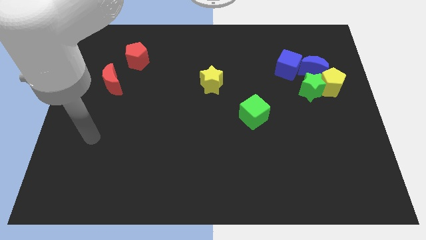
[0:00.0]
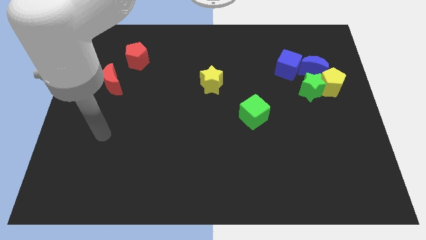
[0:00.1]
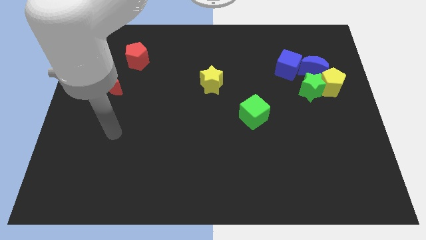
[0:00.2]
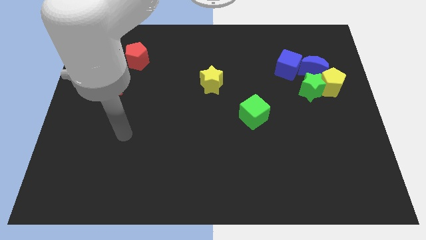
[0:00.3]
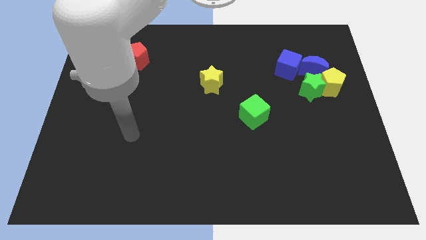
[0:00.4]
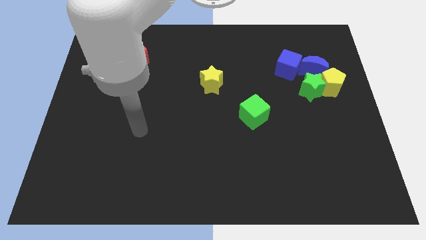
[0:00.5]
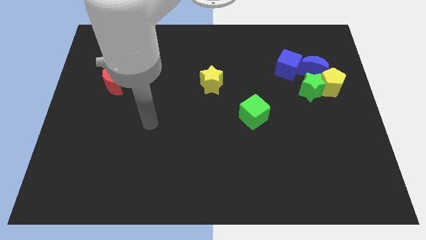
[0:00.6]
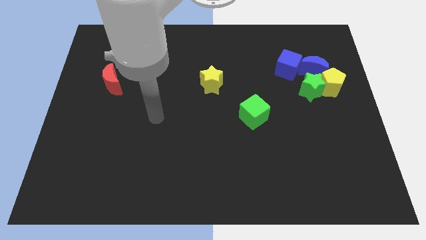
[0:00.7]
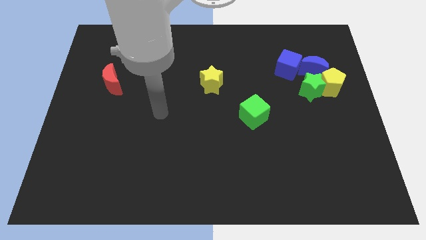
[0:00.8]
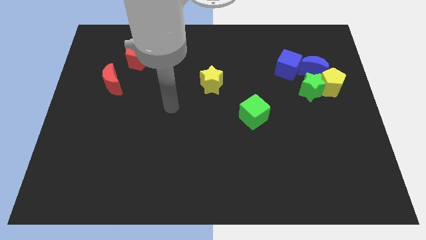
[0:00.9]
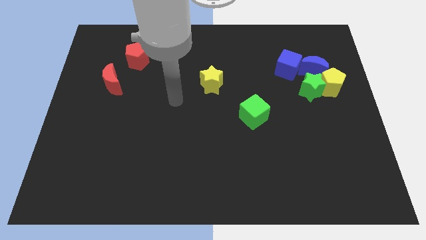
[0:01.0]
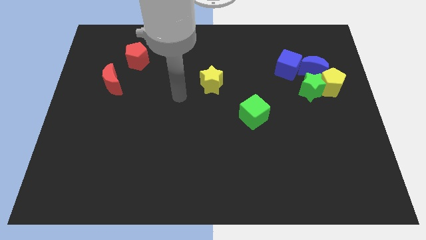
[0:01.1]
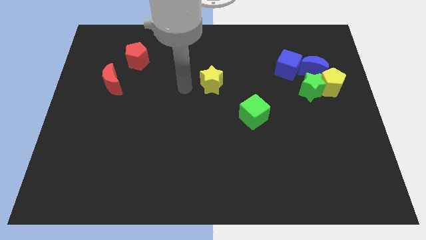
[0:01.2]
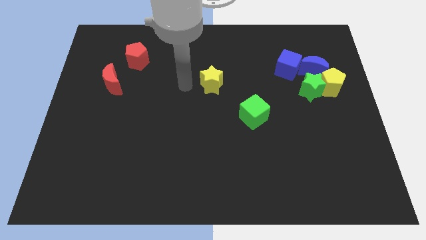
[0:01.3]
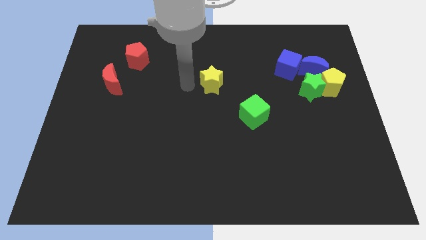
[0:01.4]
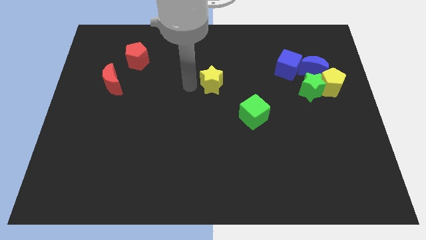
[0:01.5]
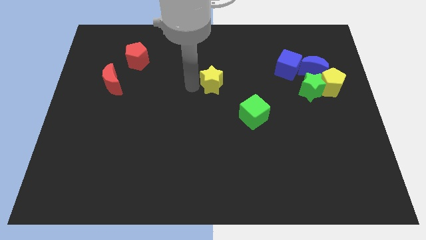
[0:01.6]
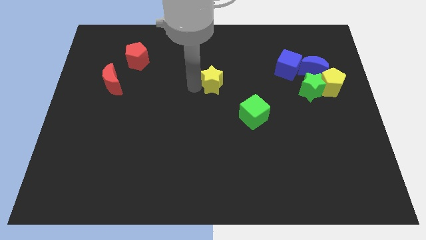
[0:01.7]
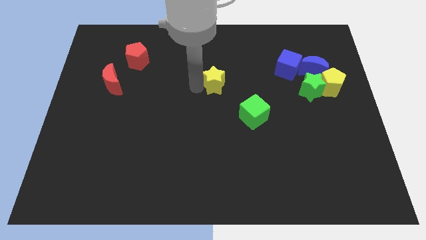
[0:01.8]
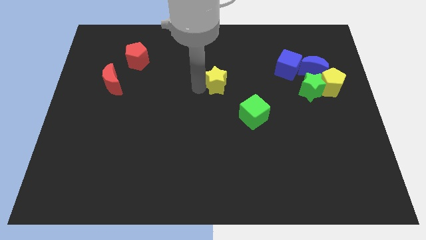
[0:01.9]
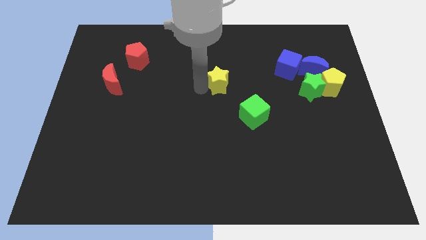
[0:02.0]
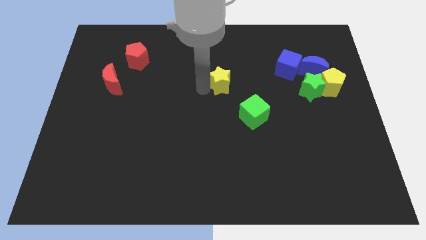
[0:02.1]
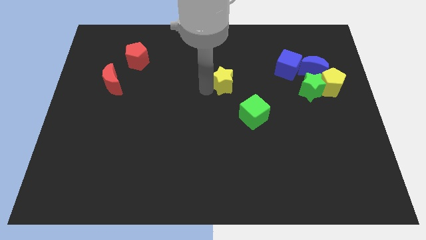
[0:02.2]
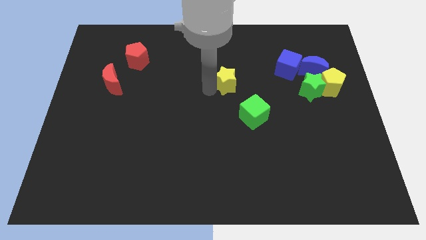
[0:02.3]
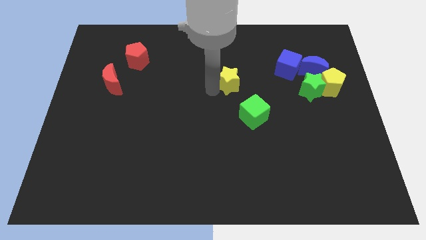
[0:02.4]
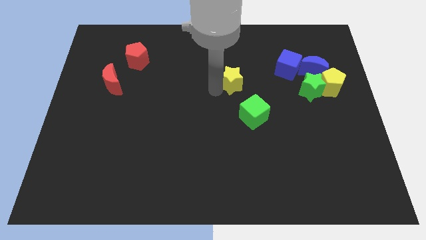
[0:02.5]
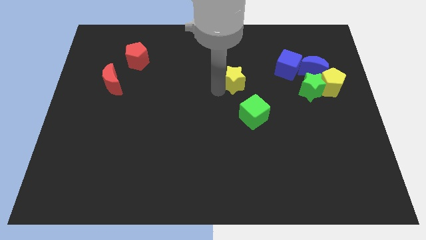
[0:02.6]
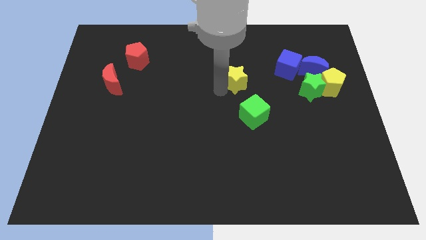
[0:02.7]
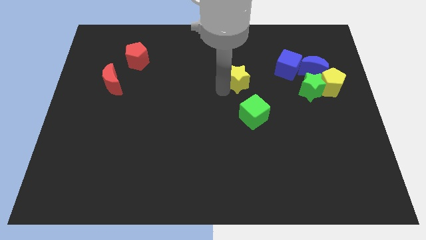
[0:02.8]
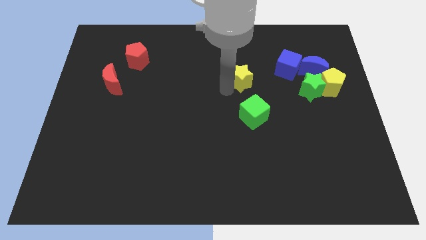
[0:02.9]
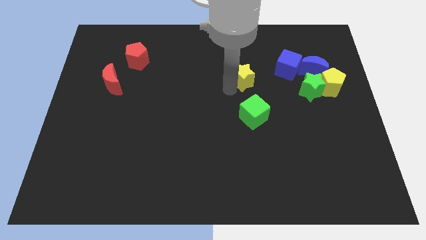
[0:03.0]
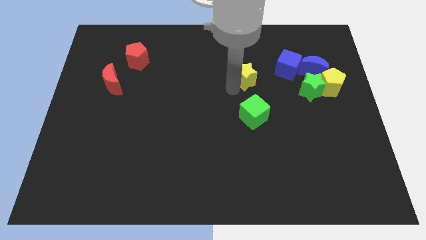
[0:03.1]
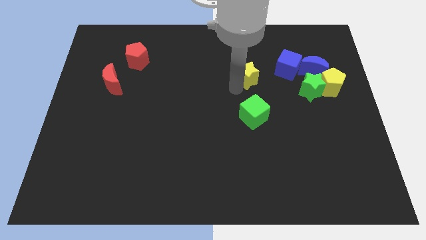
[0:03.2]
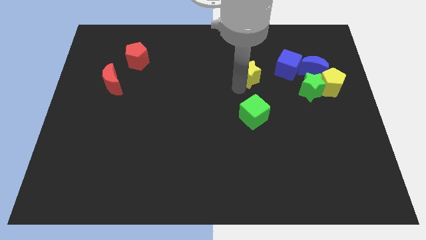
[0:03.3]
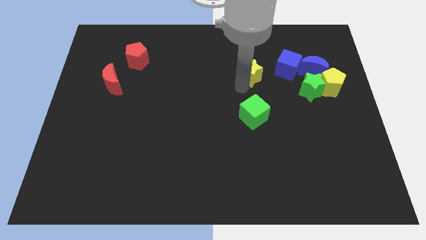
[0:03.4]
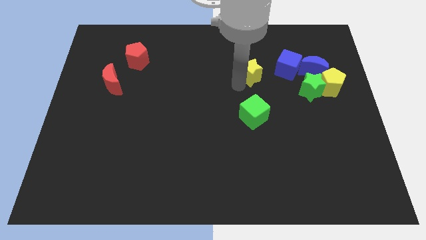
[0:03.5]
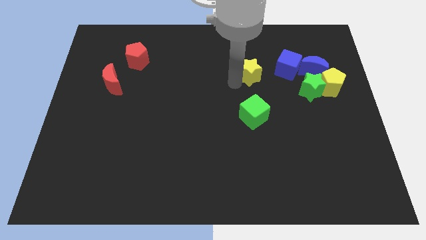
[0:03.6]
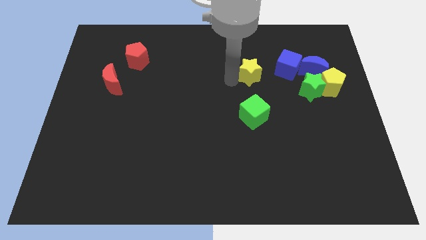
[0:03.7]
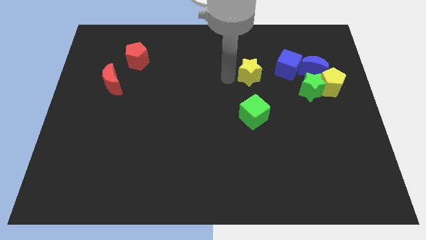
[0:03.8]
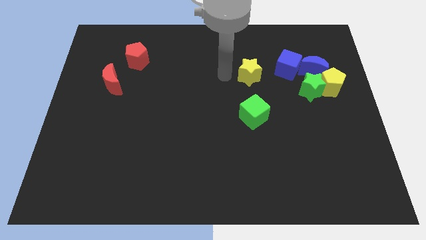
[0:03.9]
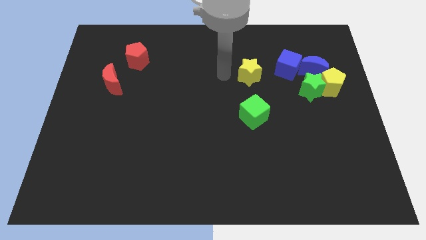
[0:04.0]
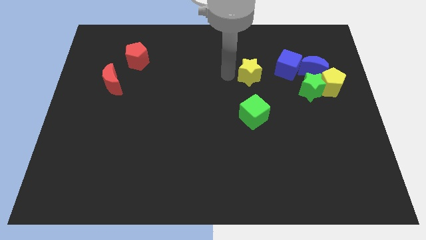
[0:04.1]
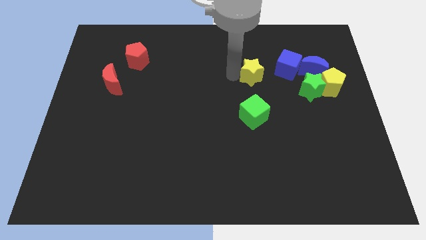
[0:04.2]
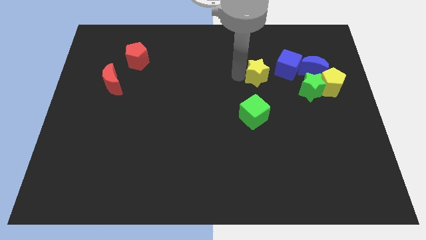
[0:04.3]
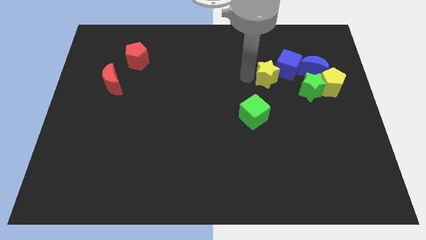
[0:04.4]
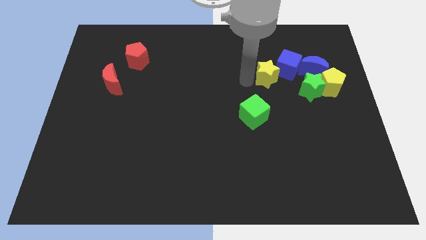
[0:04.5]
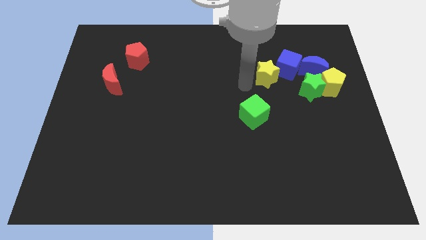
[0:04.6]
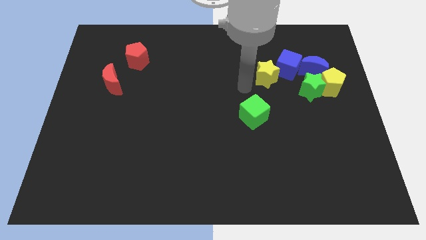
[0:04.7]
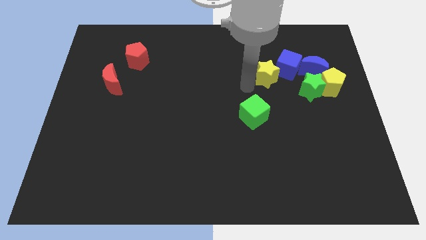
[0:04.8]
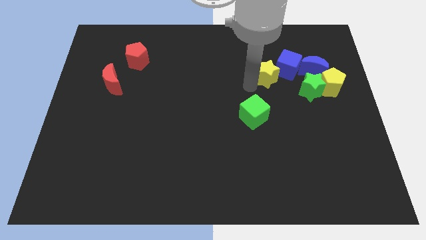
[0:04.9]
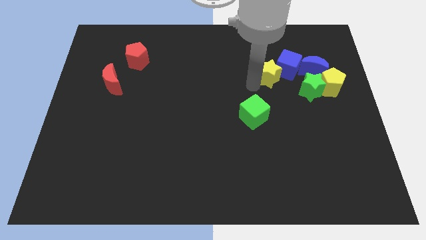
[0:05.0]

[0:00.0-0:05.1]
push the yellow star to the blue cube

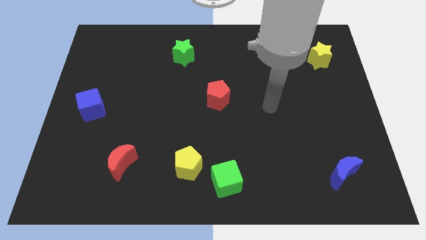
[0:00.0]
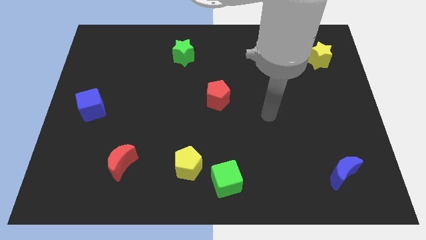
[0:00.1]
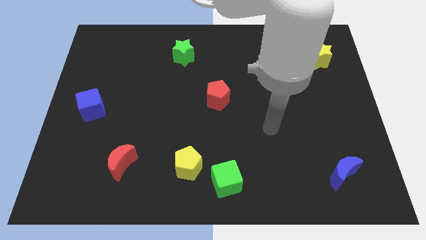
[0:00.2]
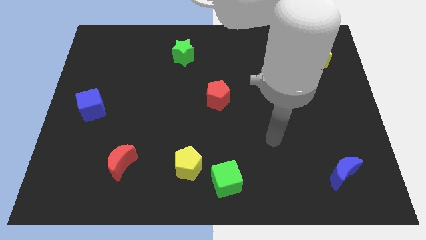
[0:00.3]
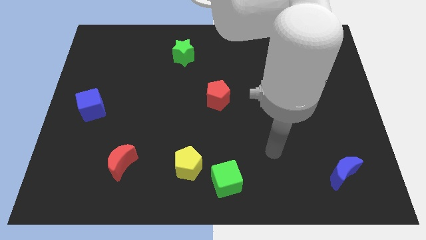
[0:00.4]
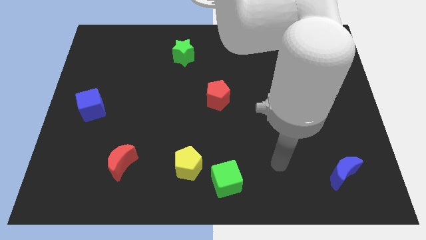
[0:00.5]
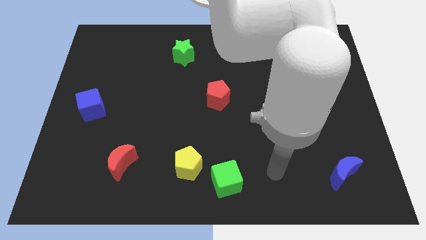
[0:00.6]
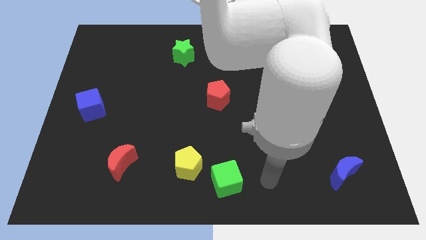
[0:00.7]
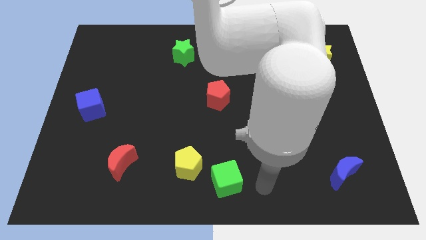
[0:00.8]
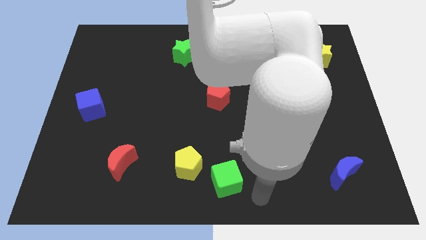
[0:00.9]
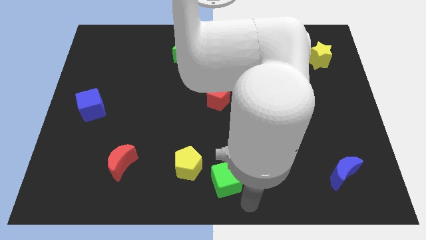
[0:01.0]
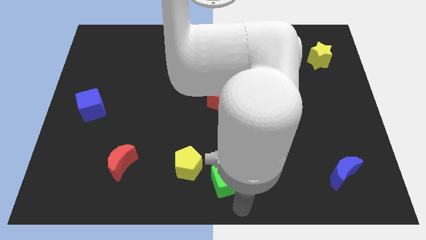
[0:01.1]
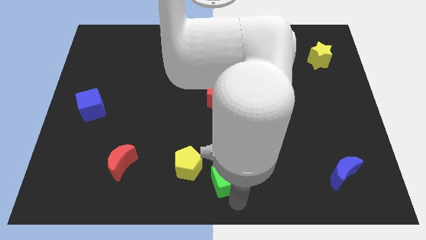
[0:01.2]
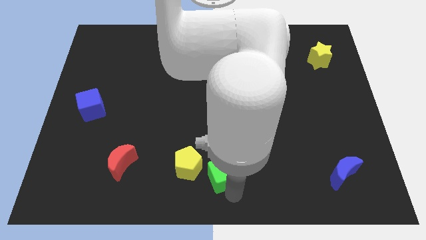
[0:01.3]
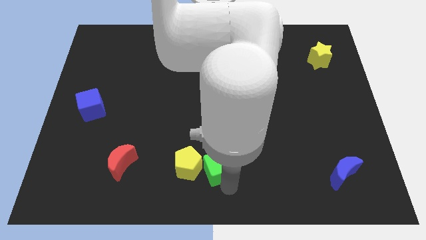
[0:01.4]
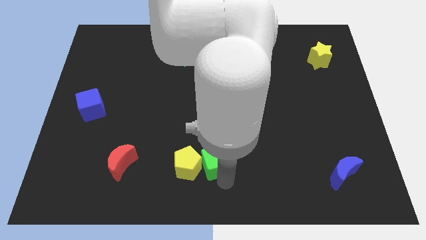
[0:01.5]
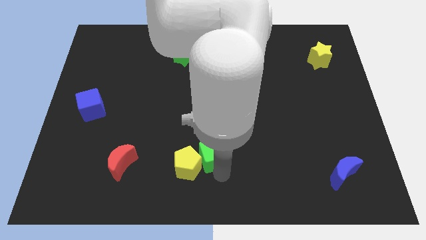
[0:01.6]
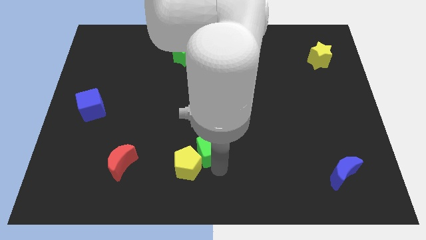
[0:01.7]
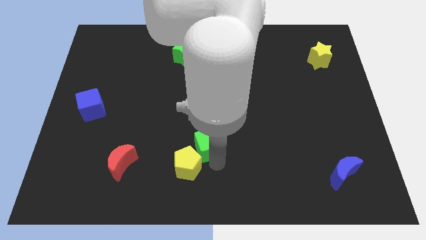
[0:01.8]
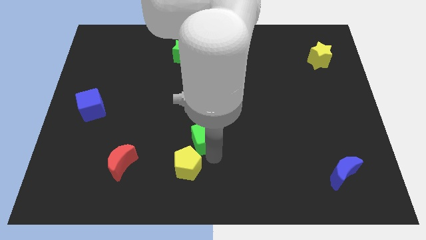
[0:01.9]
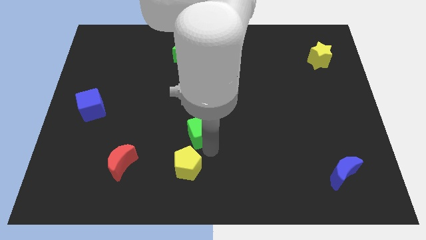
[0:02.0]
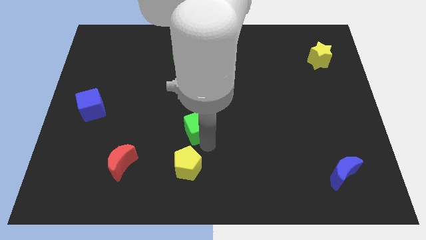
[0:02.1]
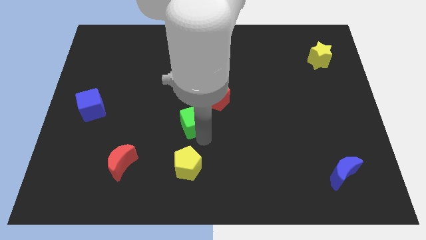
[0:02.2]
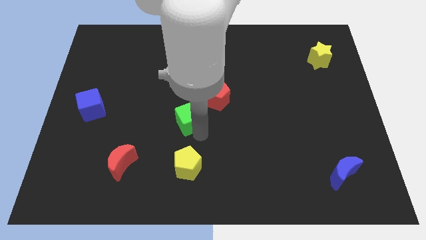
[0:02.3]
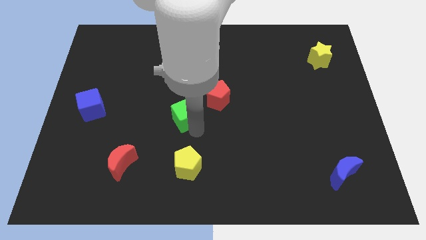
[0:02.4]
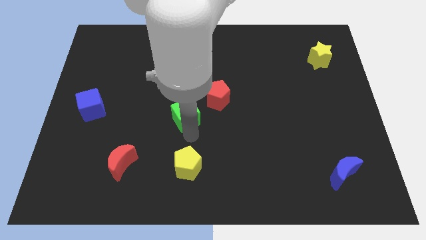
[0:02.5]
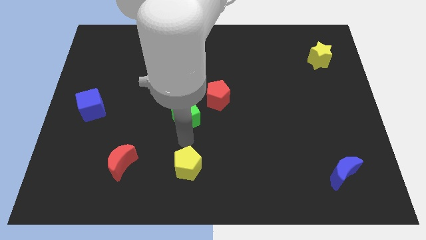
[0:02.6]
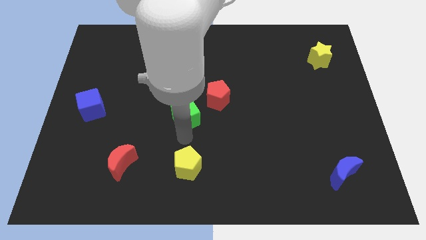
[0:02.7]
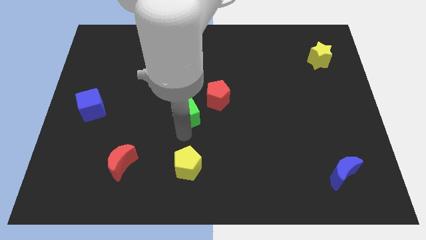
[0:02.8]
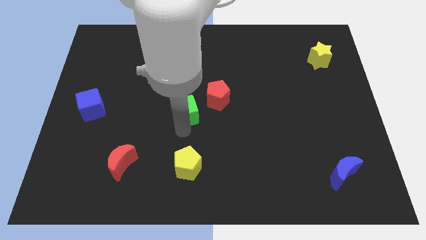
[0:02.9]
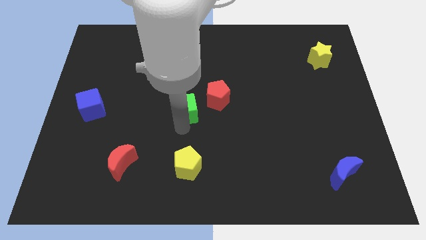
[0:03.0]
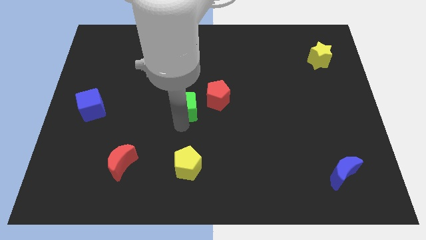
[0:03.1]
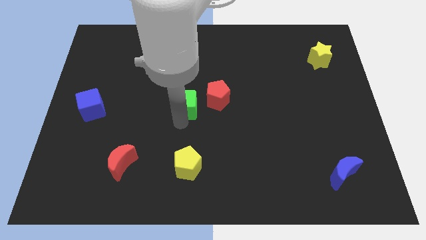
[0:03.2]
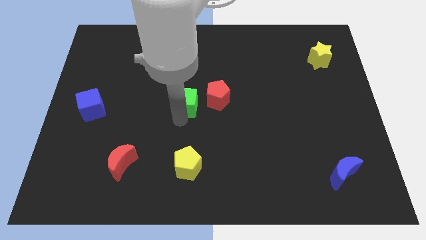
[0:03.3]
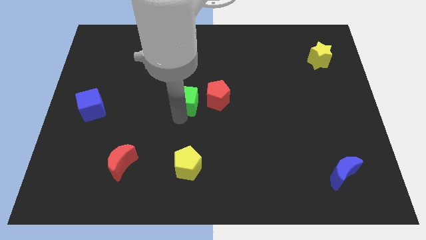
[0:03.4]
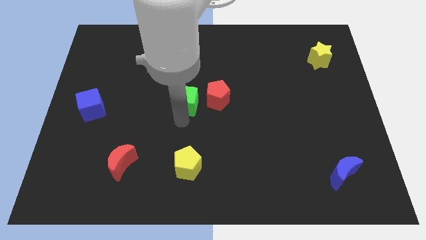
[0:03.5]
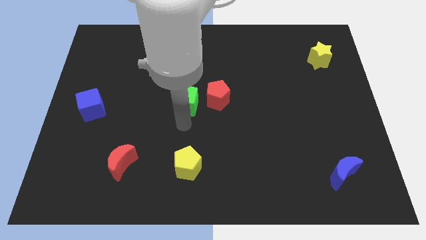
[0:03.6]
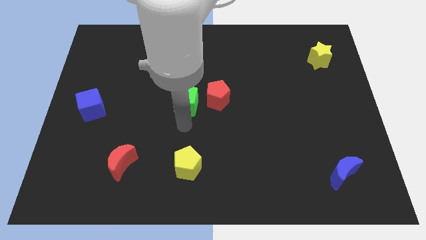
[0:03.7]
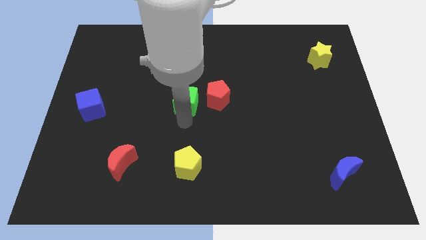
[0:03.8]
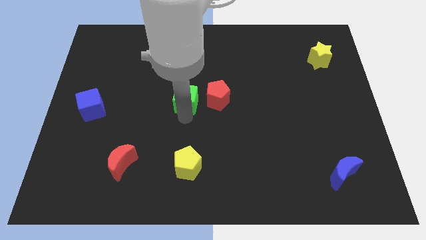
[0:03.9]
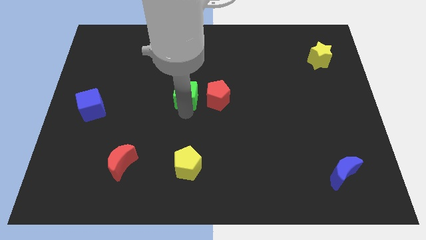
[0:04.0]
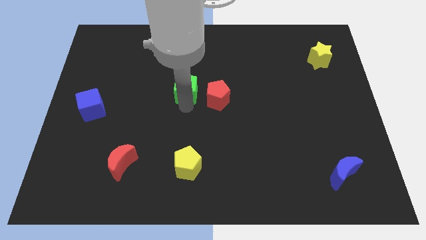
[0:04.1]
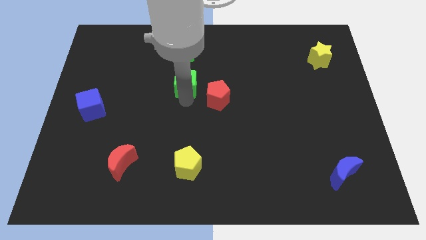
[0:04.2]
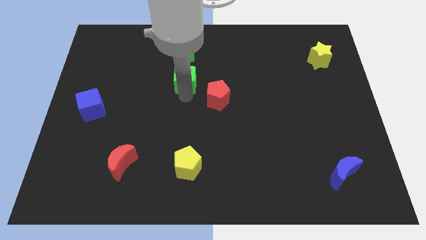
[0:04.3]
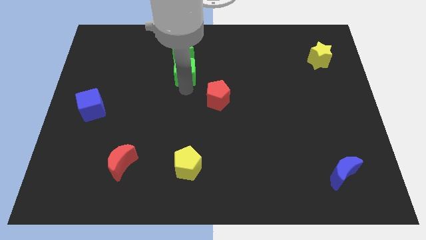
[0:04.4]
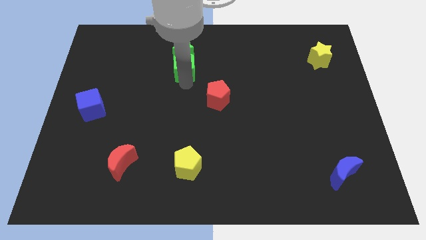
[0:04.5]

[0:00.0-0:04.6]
push the green cube to the green star
